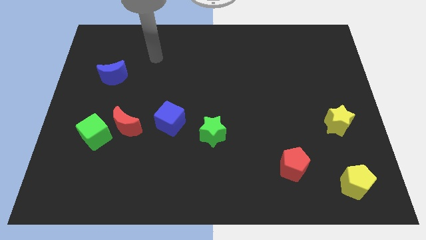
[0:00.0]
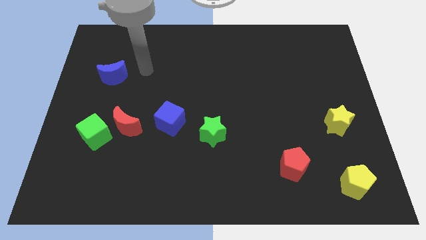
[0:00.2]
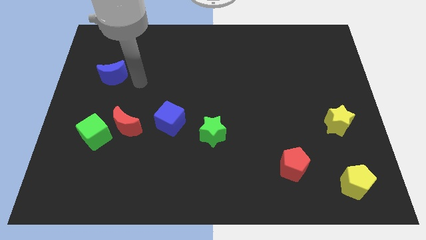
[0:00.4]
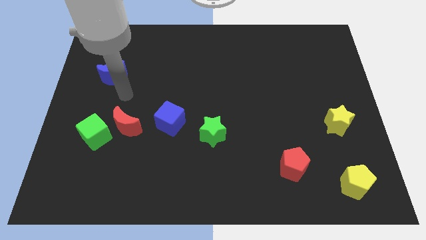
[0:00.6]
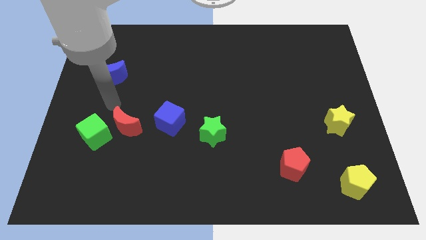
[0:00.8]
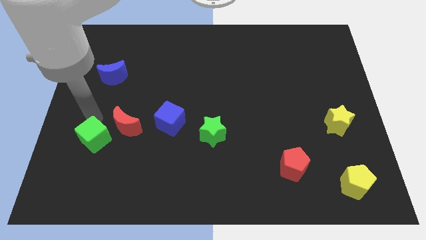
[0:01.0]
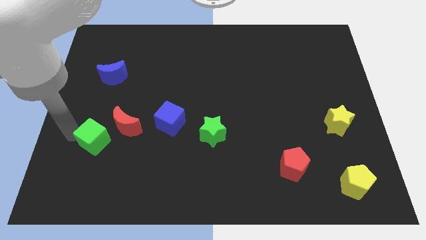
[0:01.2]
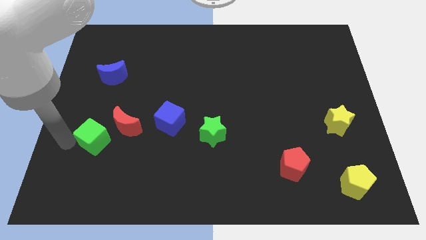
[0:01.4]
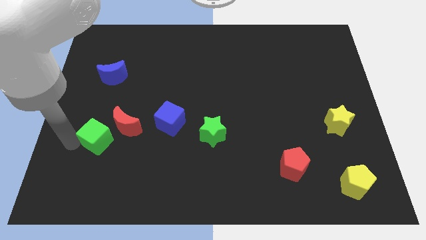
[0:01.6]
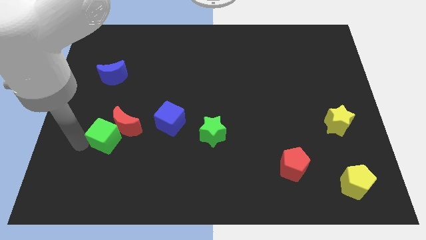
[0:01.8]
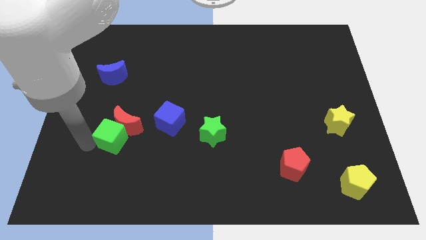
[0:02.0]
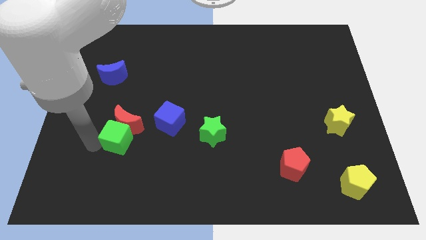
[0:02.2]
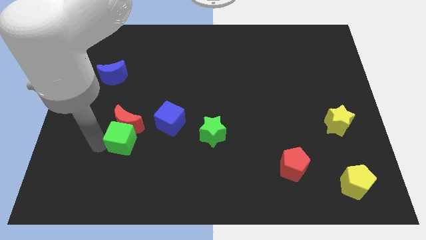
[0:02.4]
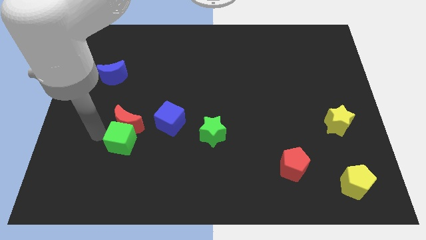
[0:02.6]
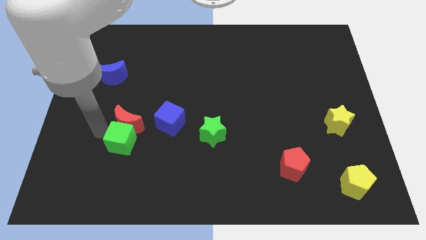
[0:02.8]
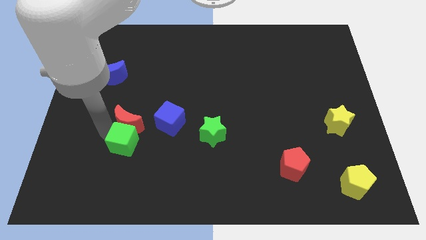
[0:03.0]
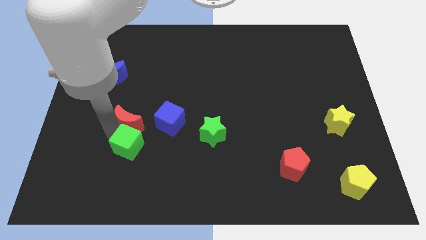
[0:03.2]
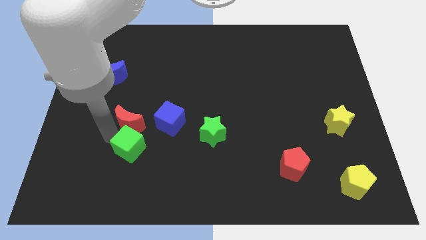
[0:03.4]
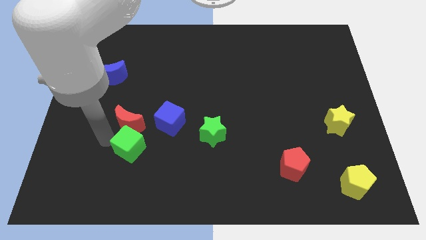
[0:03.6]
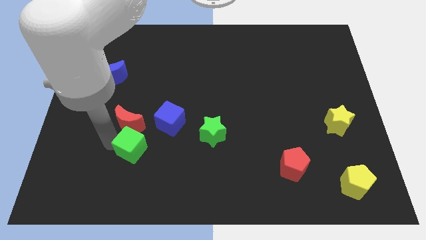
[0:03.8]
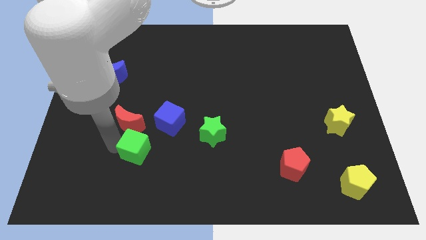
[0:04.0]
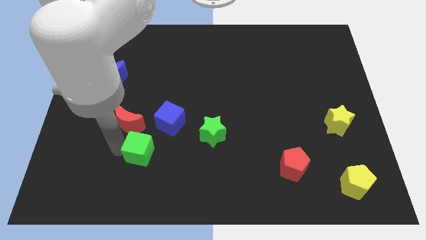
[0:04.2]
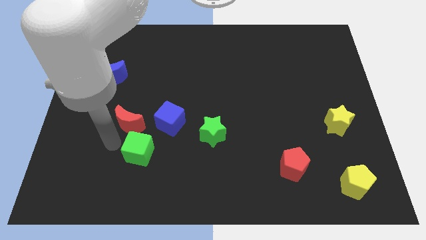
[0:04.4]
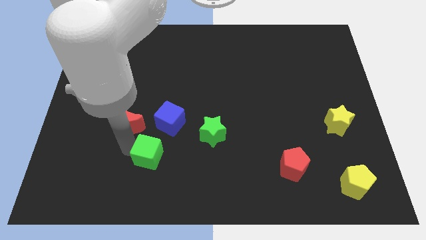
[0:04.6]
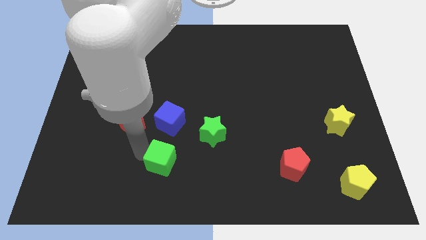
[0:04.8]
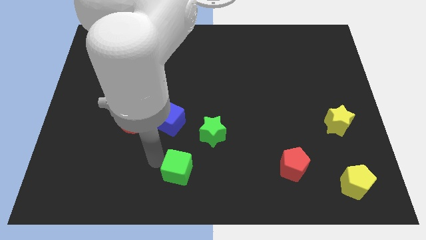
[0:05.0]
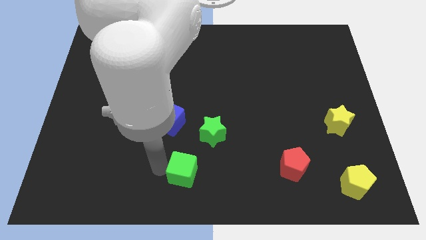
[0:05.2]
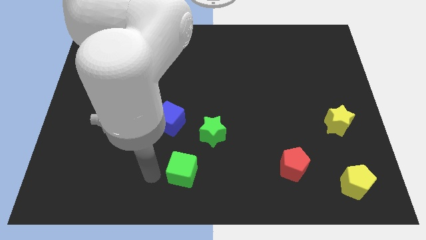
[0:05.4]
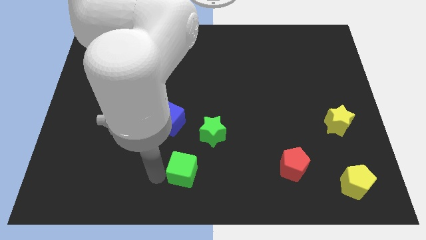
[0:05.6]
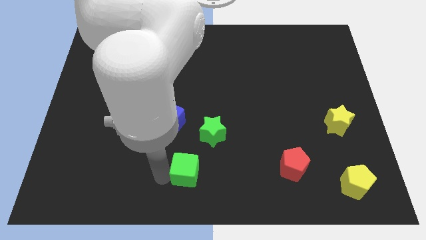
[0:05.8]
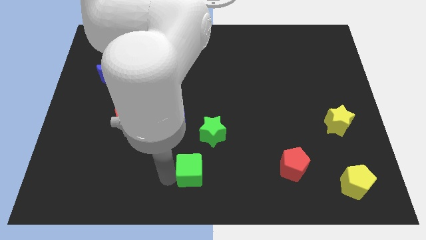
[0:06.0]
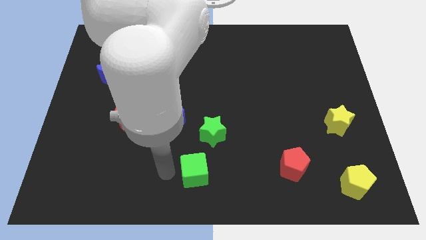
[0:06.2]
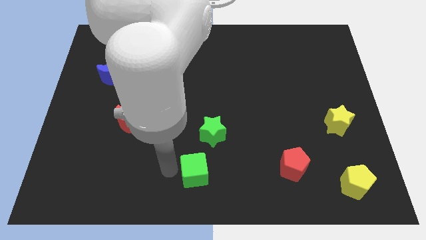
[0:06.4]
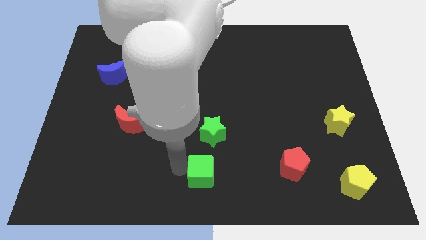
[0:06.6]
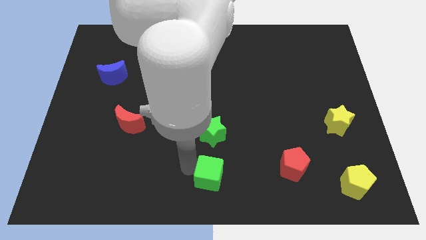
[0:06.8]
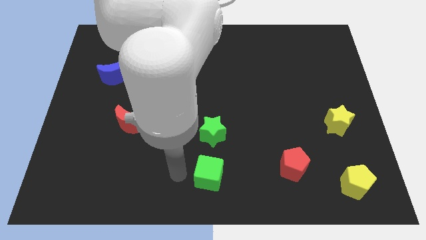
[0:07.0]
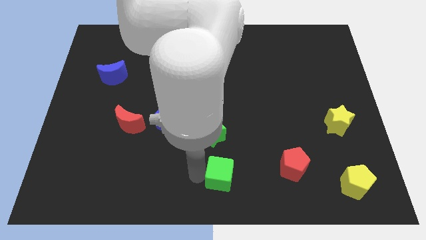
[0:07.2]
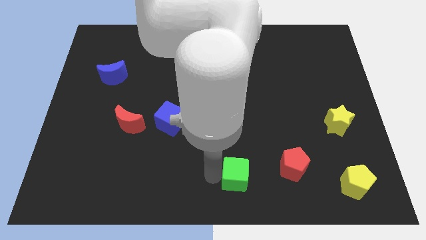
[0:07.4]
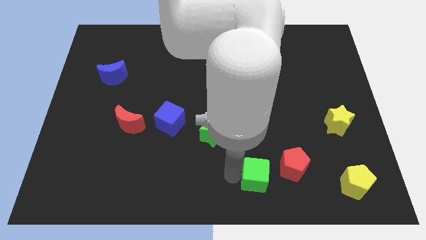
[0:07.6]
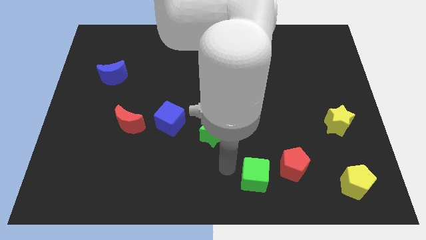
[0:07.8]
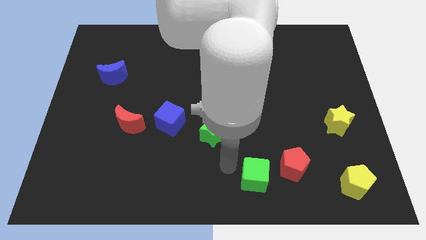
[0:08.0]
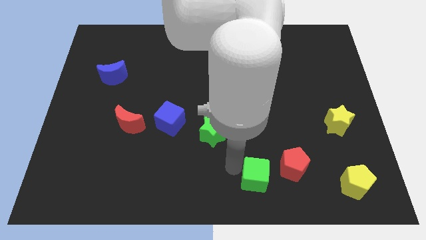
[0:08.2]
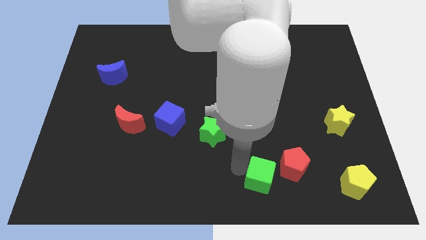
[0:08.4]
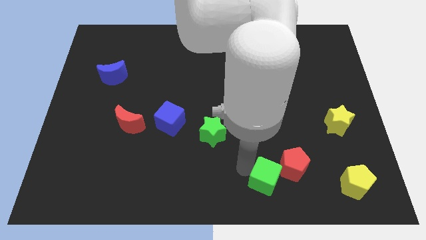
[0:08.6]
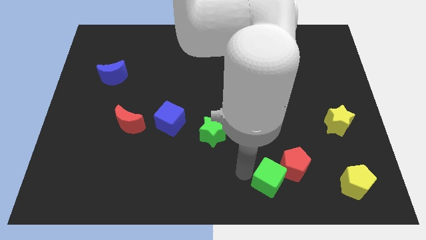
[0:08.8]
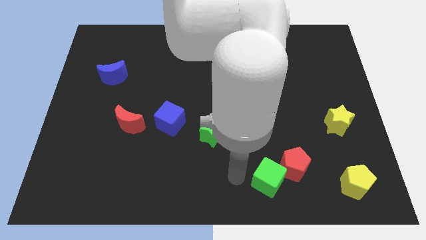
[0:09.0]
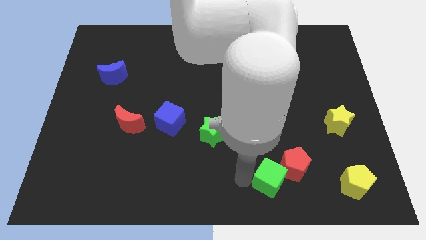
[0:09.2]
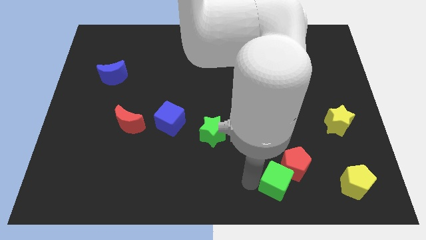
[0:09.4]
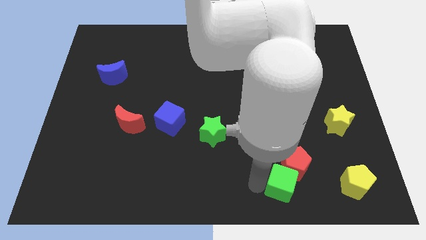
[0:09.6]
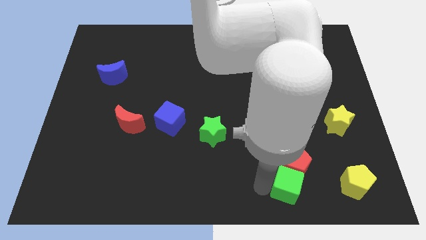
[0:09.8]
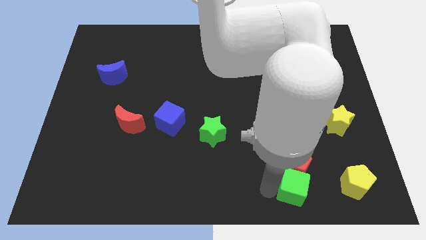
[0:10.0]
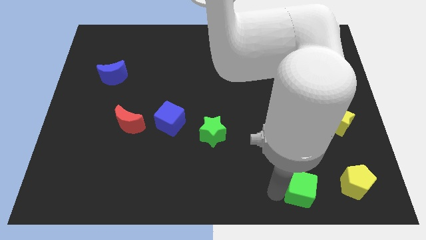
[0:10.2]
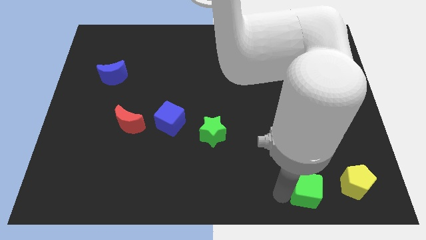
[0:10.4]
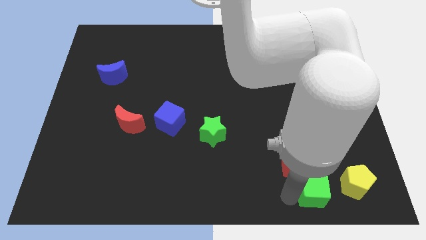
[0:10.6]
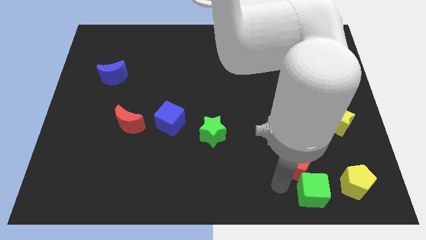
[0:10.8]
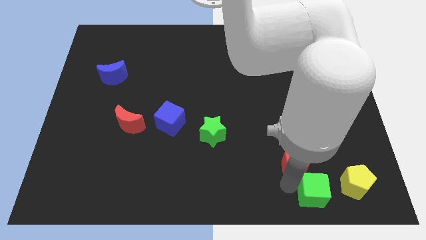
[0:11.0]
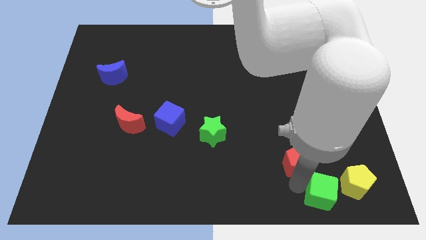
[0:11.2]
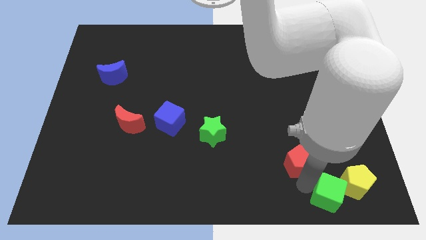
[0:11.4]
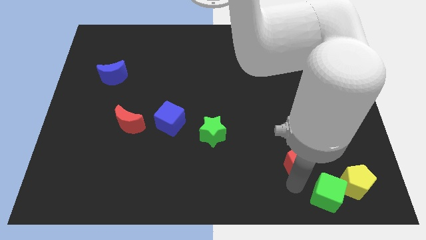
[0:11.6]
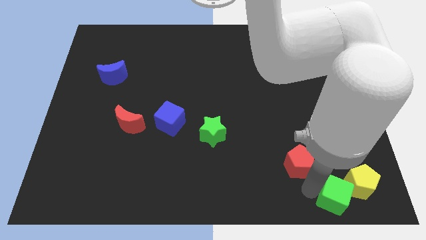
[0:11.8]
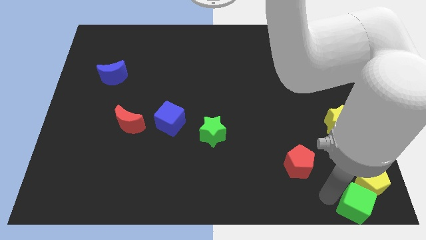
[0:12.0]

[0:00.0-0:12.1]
move the green cube to the bottom right

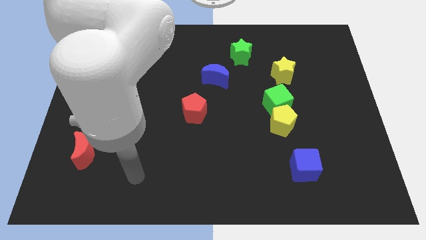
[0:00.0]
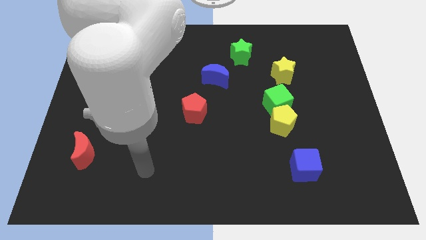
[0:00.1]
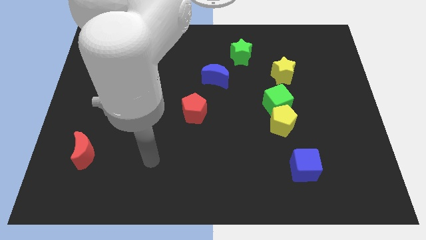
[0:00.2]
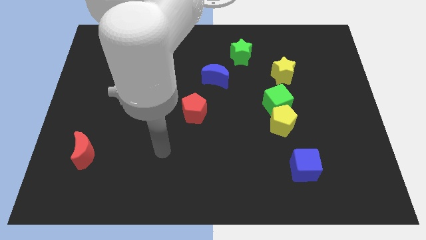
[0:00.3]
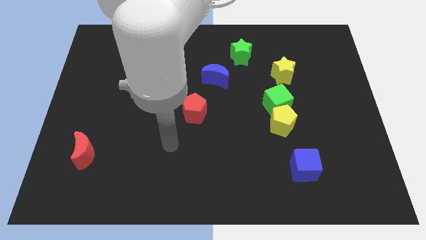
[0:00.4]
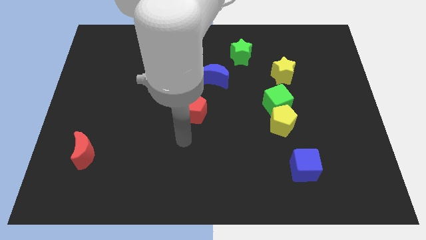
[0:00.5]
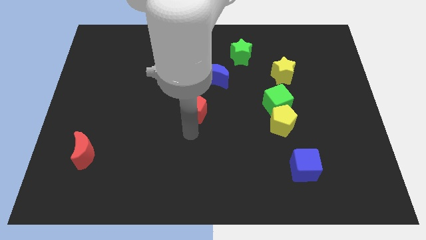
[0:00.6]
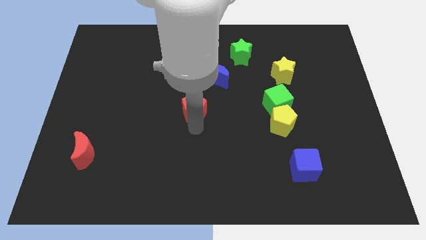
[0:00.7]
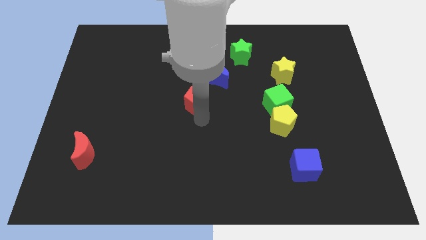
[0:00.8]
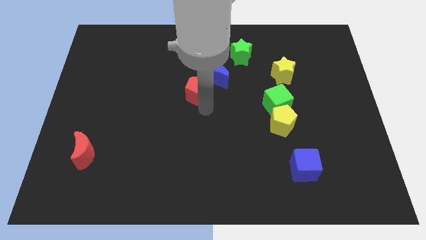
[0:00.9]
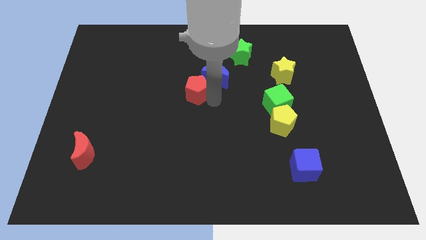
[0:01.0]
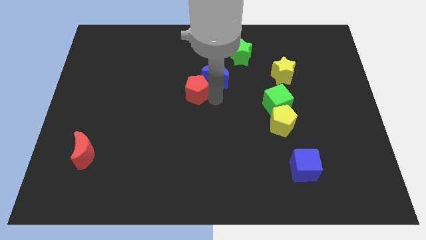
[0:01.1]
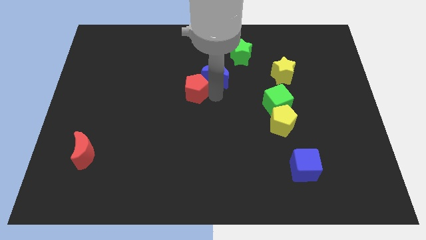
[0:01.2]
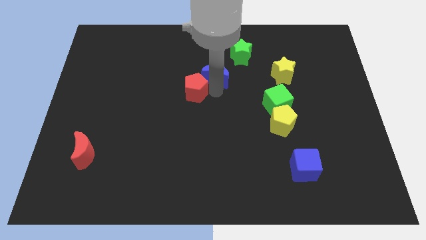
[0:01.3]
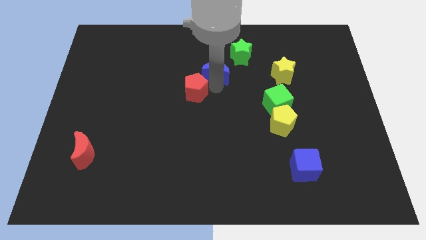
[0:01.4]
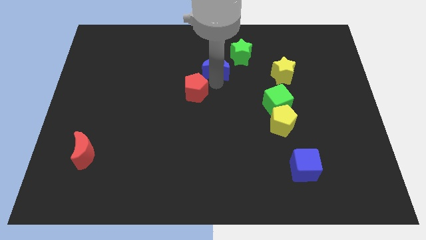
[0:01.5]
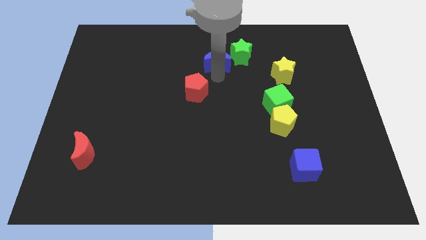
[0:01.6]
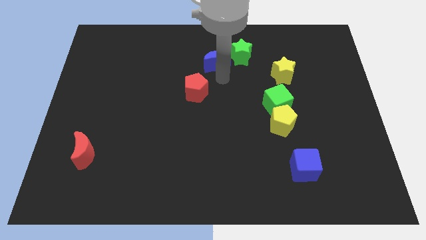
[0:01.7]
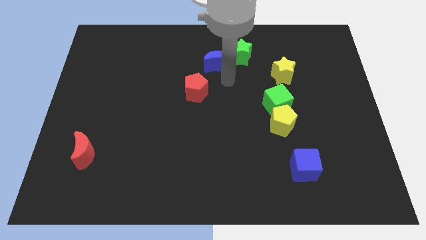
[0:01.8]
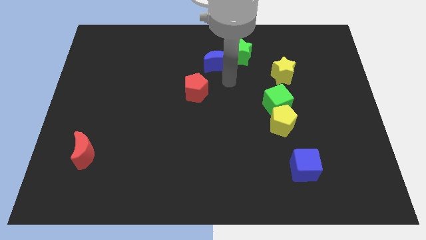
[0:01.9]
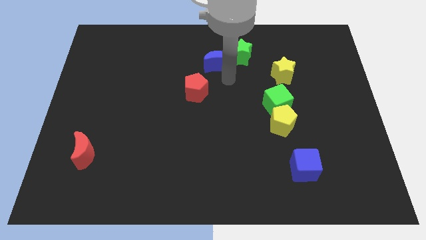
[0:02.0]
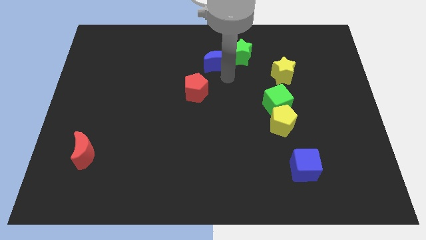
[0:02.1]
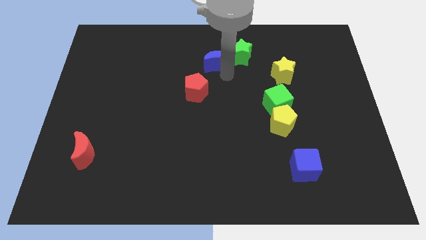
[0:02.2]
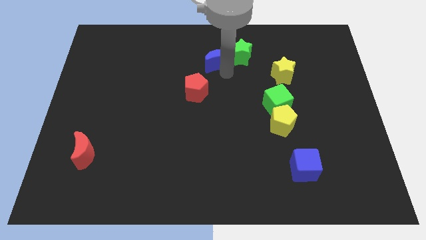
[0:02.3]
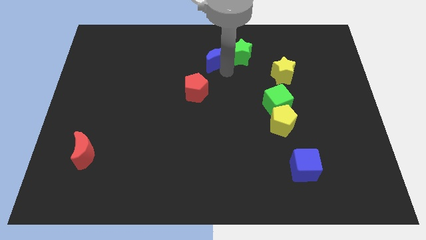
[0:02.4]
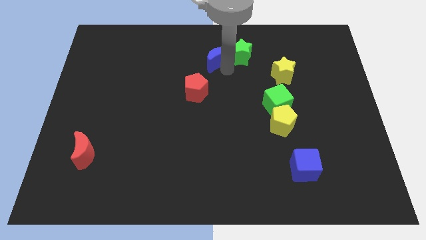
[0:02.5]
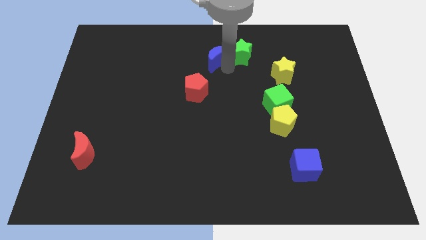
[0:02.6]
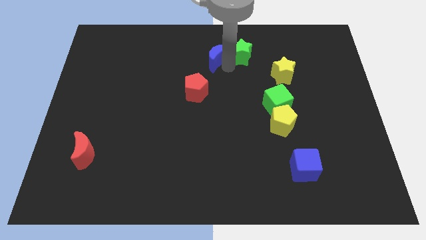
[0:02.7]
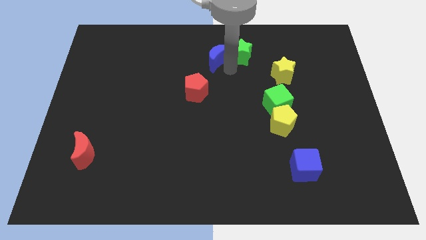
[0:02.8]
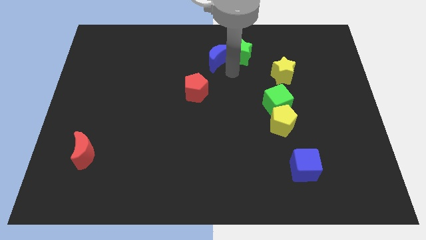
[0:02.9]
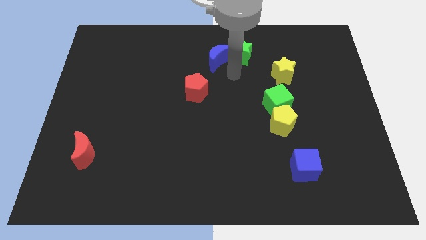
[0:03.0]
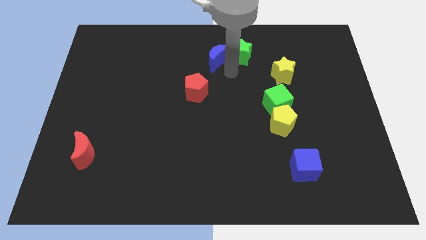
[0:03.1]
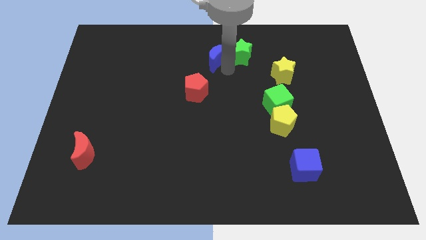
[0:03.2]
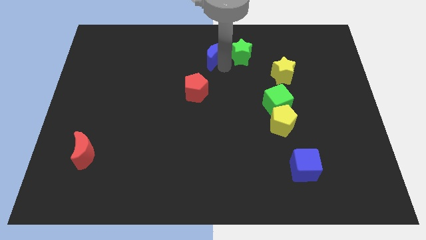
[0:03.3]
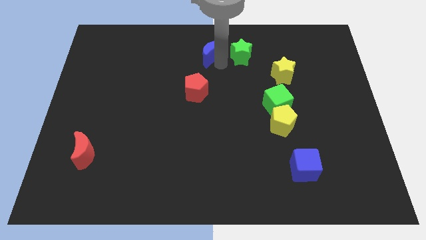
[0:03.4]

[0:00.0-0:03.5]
push the blue moon to the top
